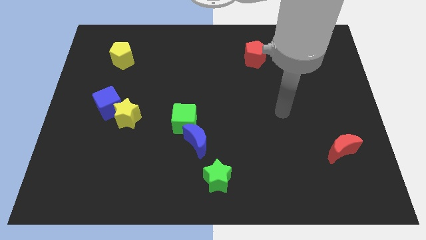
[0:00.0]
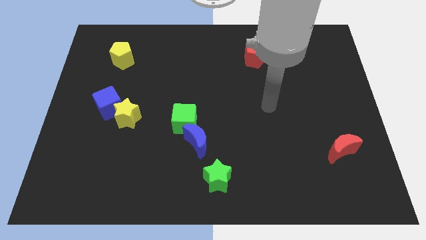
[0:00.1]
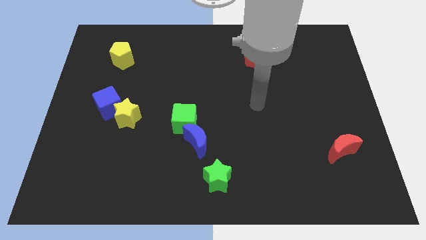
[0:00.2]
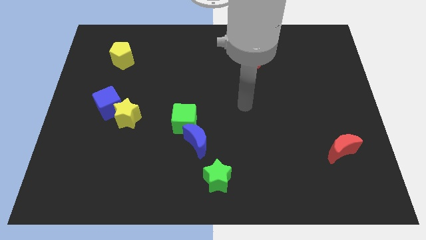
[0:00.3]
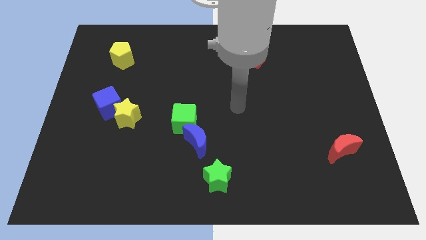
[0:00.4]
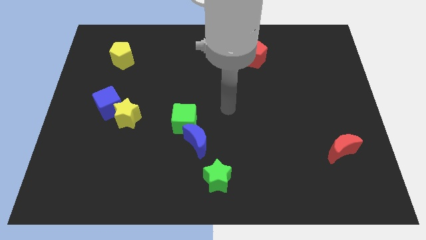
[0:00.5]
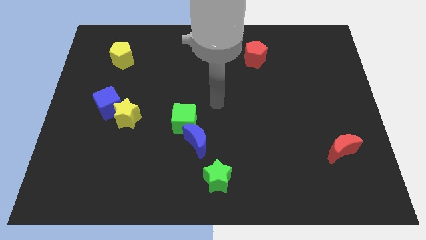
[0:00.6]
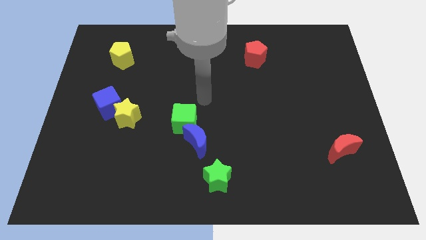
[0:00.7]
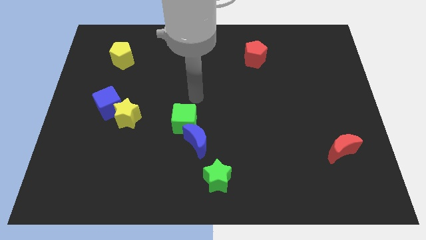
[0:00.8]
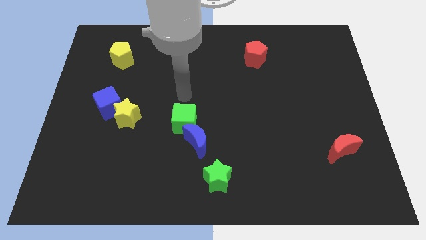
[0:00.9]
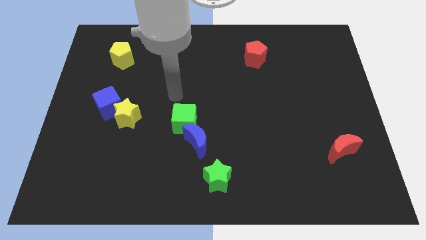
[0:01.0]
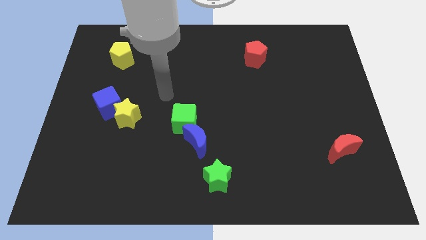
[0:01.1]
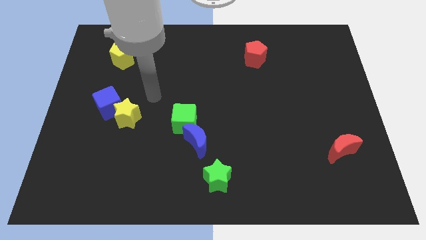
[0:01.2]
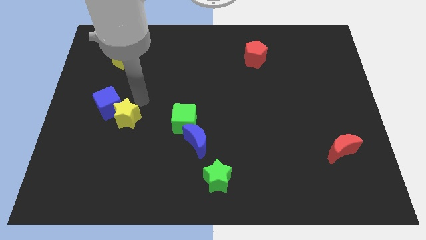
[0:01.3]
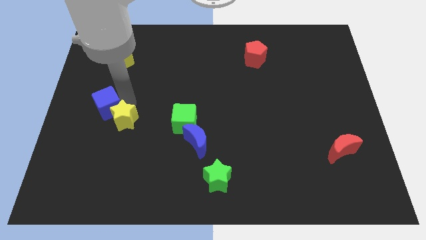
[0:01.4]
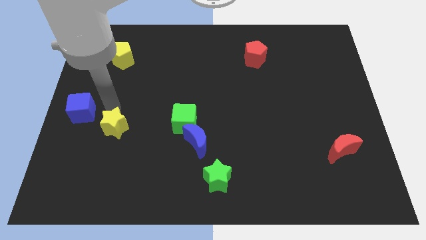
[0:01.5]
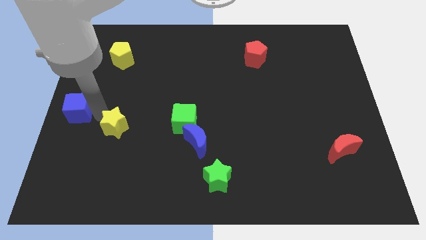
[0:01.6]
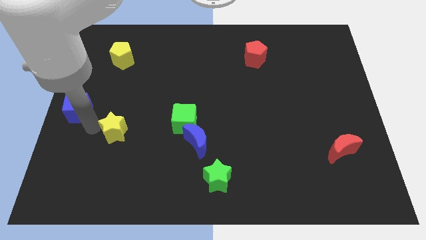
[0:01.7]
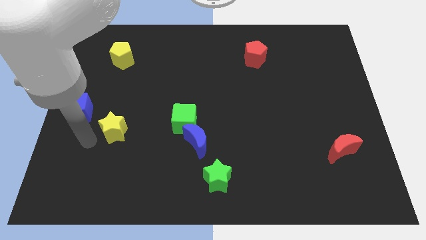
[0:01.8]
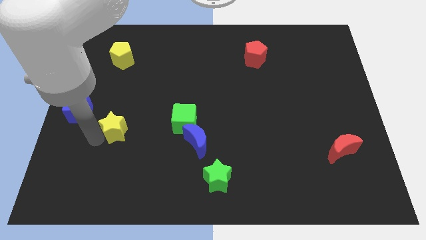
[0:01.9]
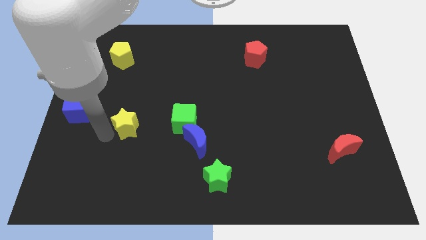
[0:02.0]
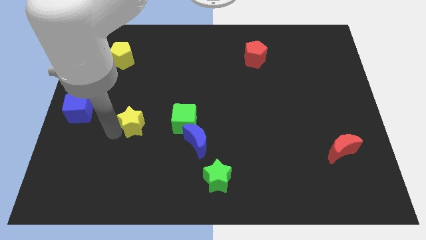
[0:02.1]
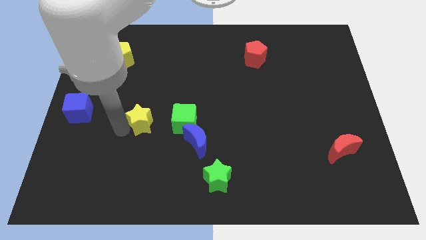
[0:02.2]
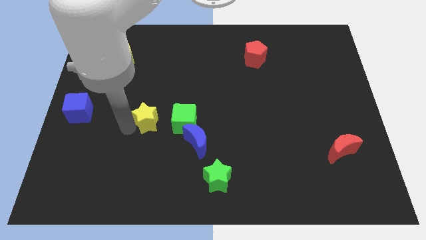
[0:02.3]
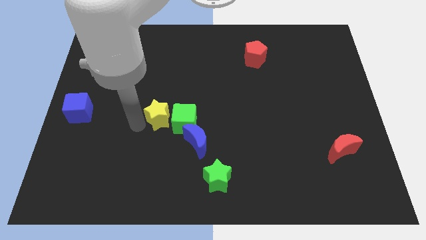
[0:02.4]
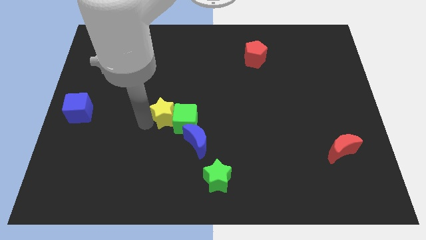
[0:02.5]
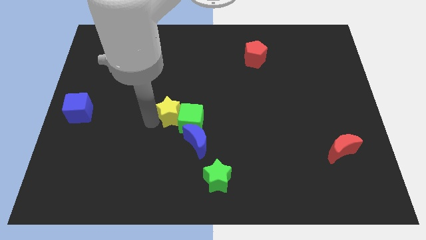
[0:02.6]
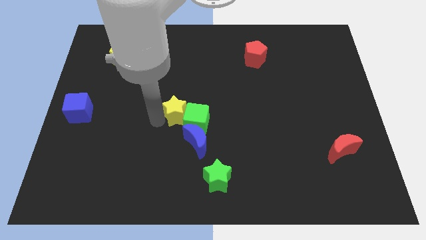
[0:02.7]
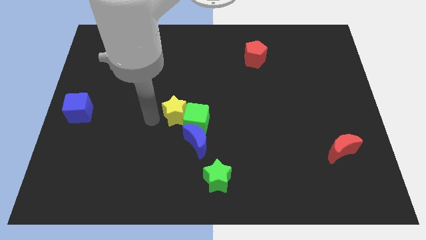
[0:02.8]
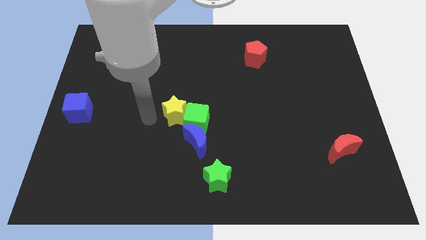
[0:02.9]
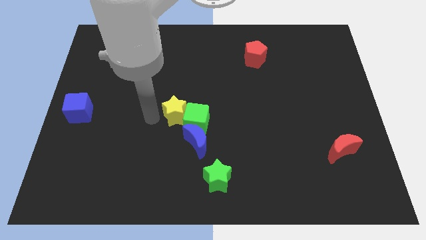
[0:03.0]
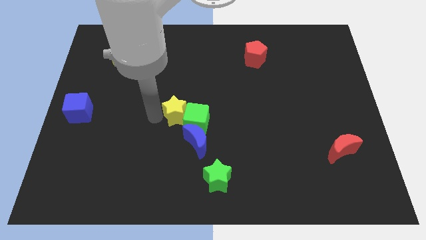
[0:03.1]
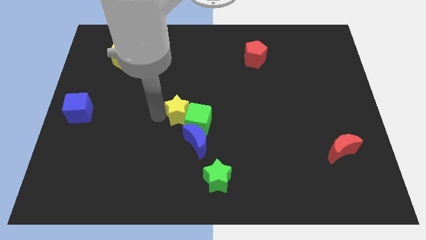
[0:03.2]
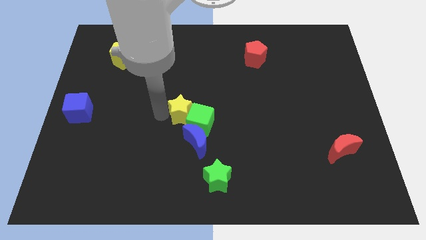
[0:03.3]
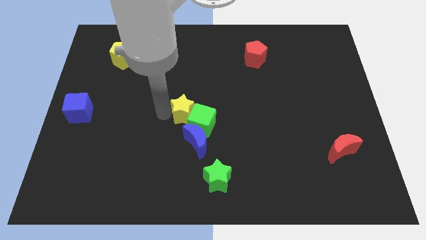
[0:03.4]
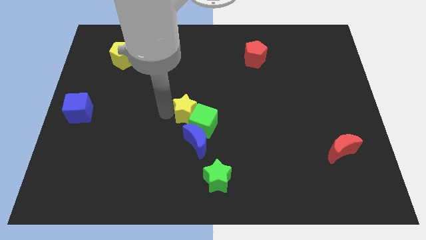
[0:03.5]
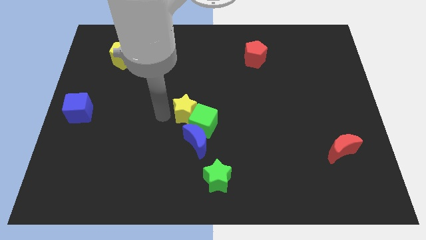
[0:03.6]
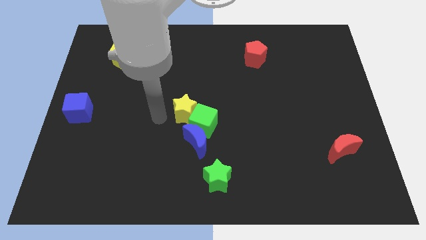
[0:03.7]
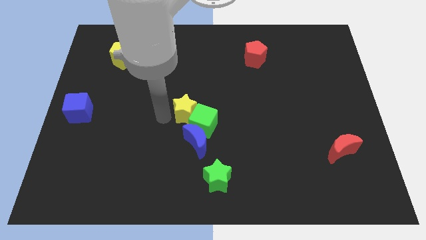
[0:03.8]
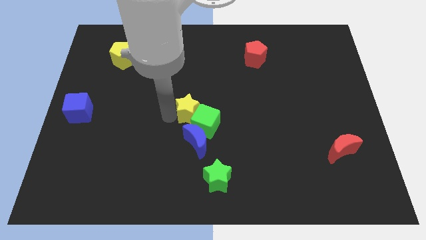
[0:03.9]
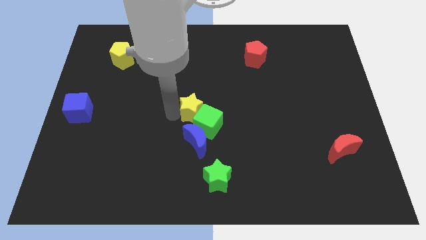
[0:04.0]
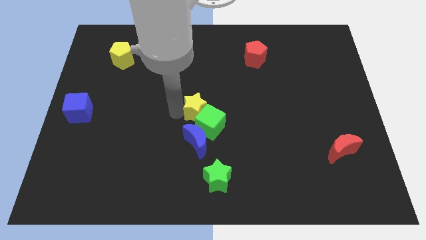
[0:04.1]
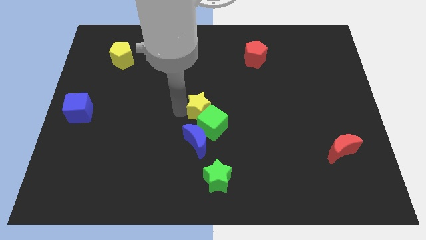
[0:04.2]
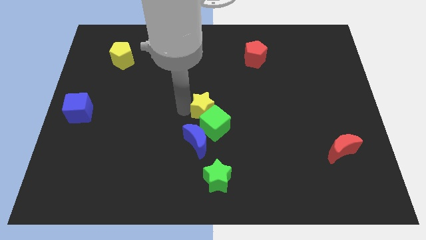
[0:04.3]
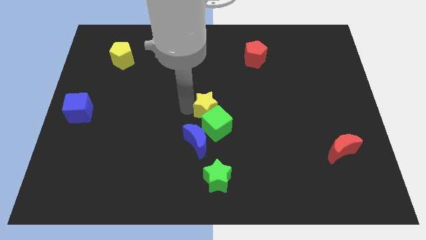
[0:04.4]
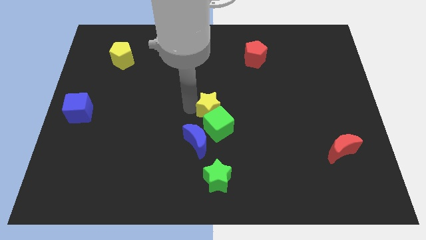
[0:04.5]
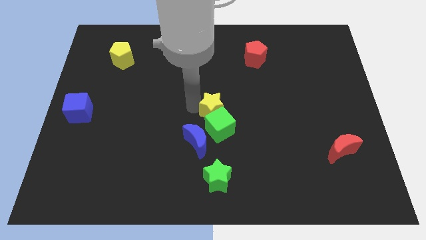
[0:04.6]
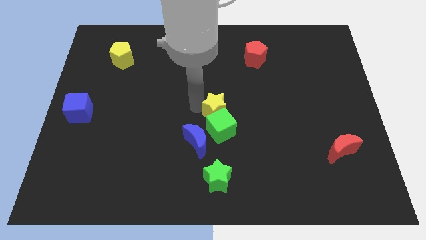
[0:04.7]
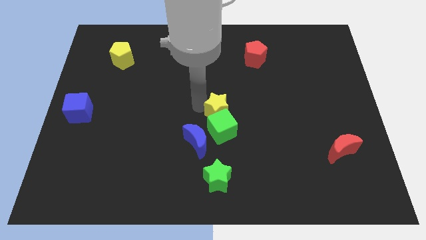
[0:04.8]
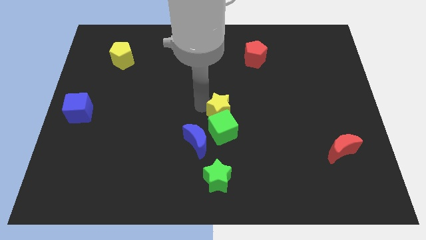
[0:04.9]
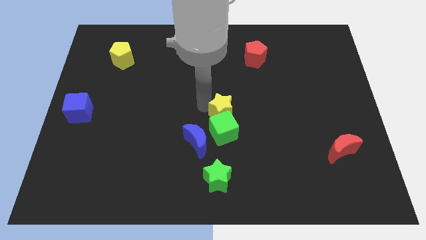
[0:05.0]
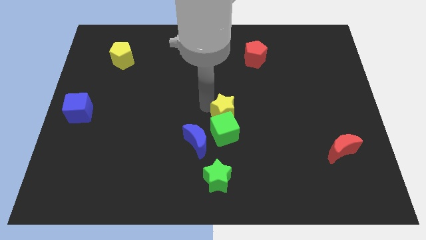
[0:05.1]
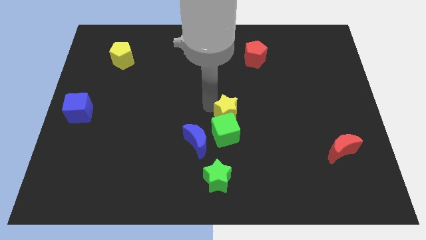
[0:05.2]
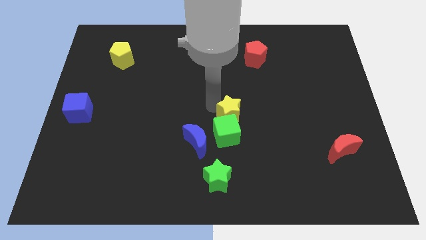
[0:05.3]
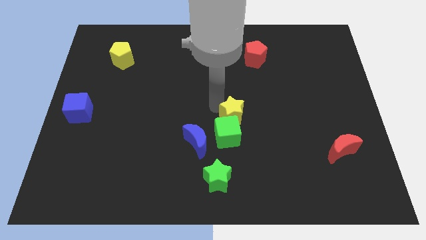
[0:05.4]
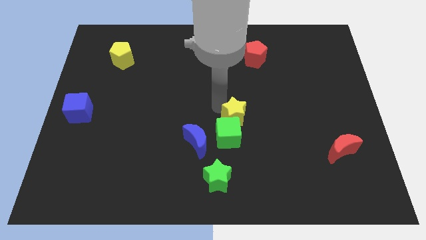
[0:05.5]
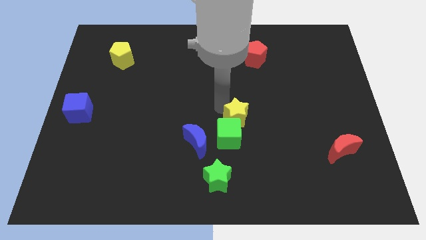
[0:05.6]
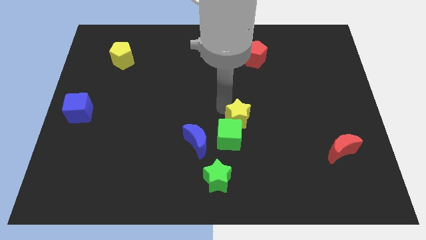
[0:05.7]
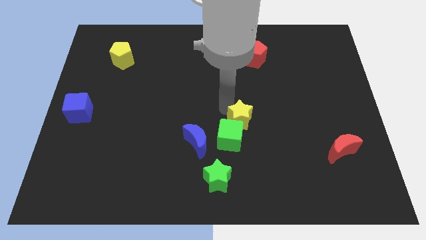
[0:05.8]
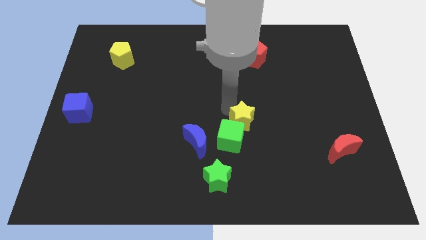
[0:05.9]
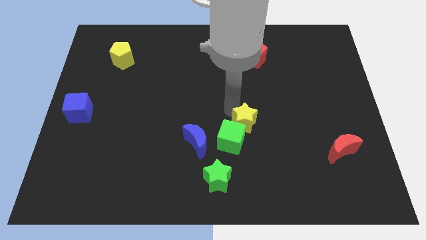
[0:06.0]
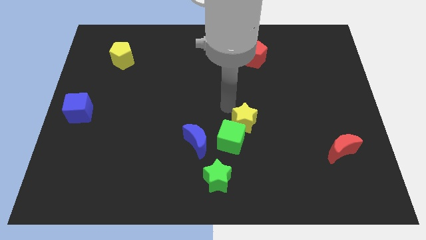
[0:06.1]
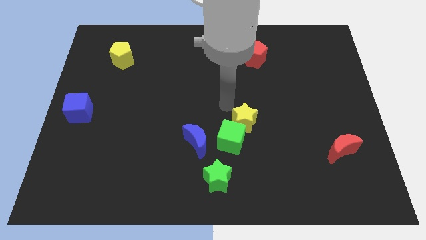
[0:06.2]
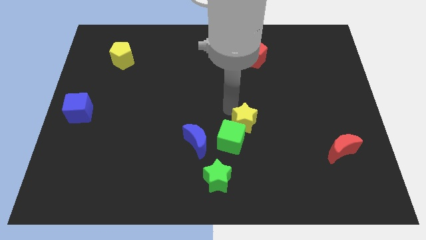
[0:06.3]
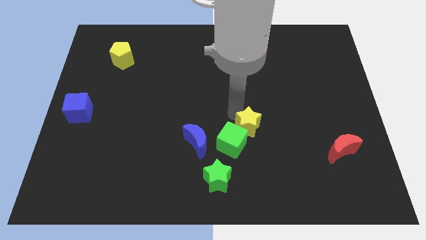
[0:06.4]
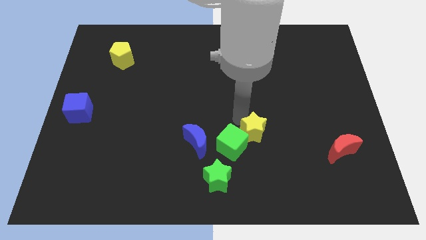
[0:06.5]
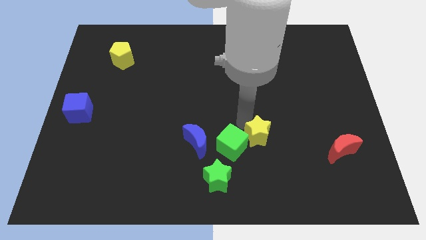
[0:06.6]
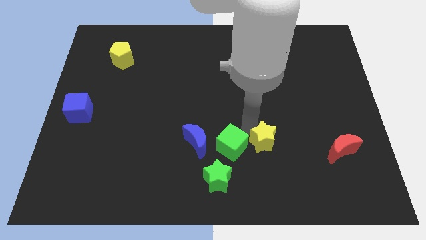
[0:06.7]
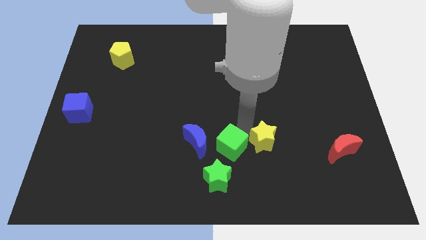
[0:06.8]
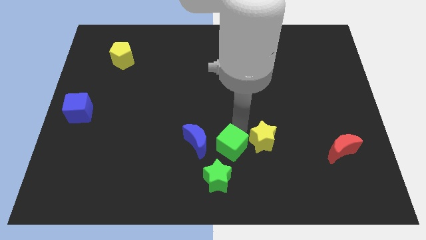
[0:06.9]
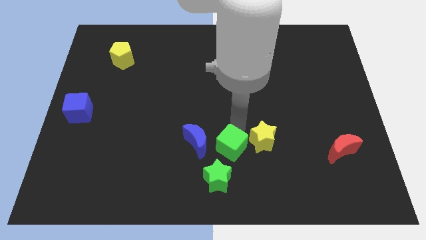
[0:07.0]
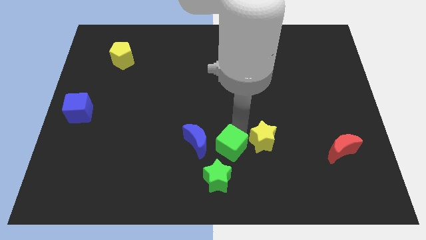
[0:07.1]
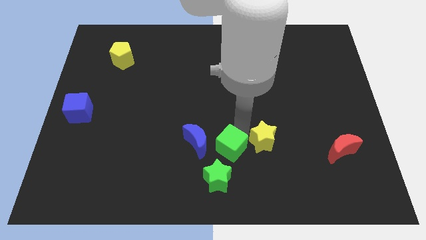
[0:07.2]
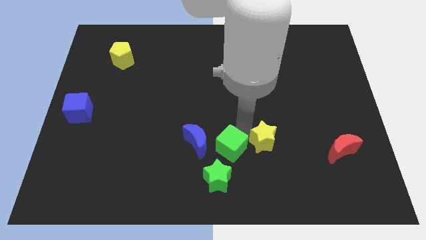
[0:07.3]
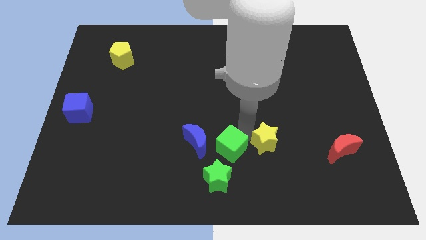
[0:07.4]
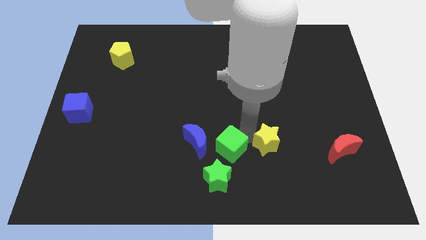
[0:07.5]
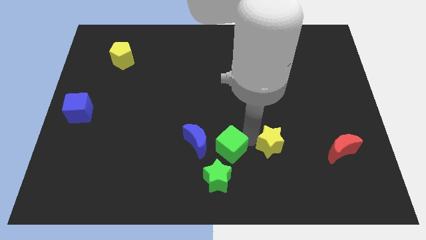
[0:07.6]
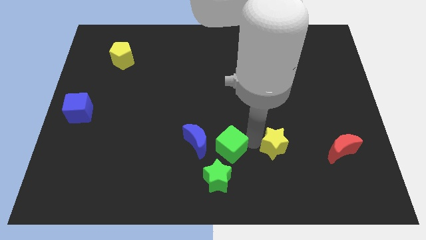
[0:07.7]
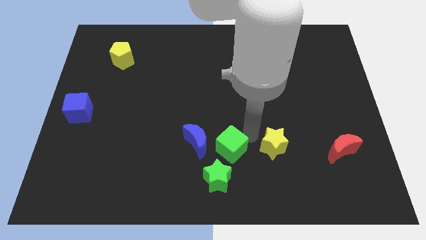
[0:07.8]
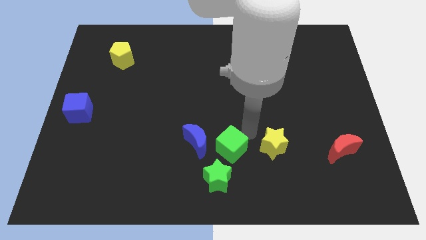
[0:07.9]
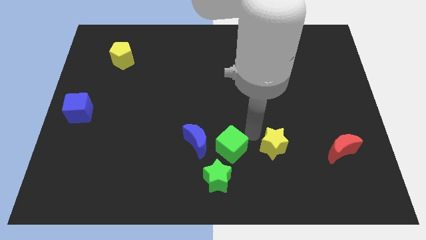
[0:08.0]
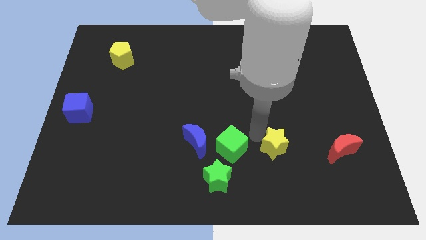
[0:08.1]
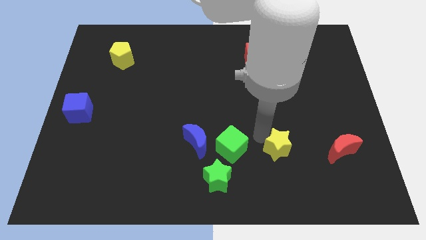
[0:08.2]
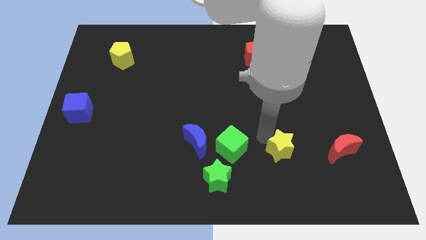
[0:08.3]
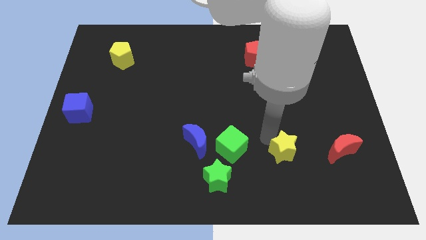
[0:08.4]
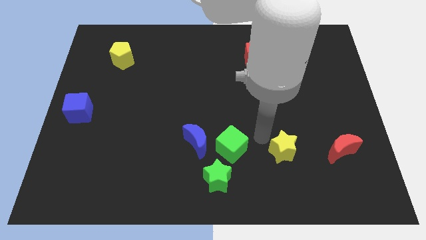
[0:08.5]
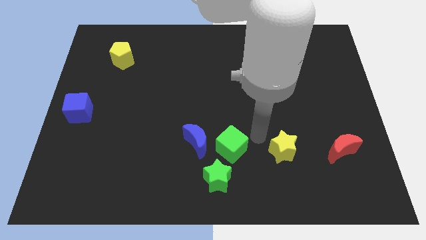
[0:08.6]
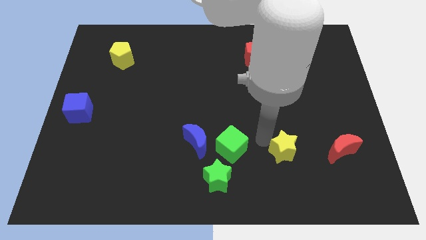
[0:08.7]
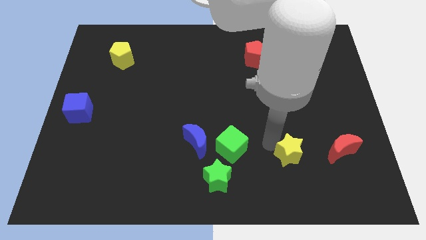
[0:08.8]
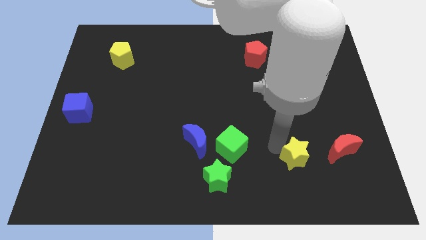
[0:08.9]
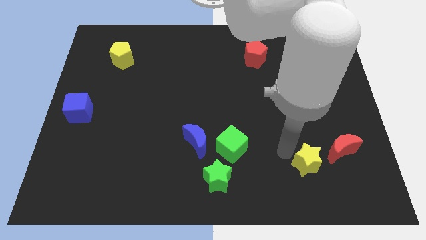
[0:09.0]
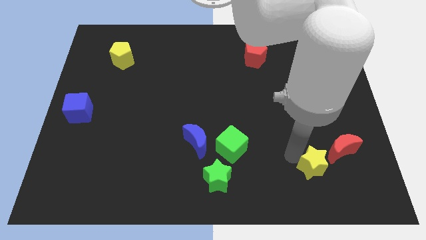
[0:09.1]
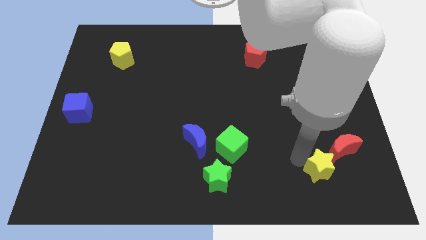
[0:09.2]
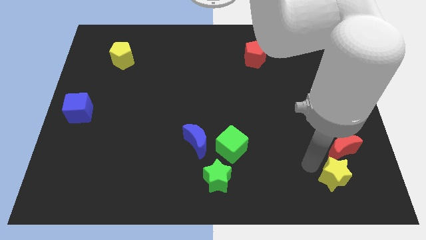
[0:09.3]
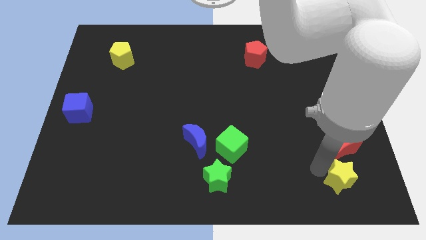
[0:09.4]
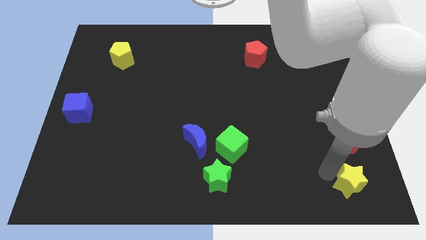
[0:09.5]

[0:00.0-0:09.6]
put the yellow star to the bottom right corner
